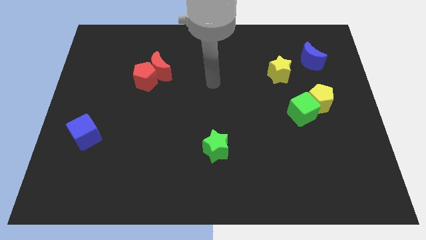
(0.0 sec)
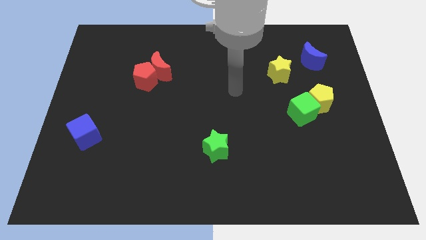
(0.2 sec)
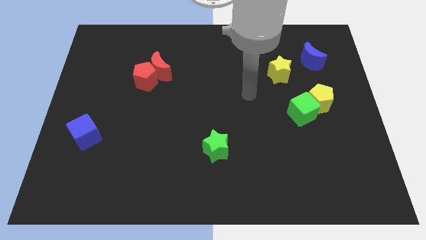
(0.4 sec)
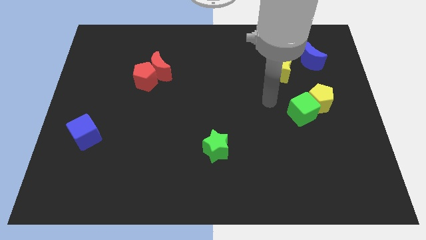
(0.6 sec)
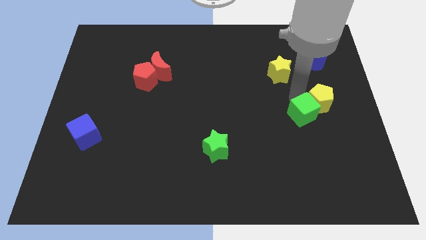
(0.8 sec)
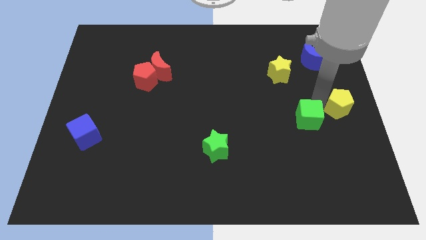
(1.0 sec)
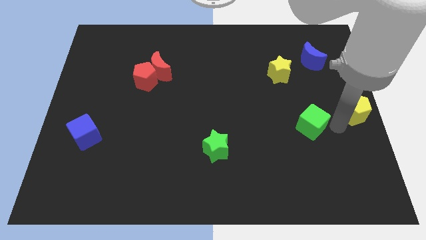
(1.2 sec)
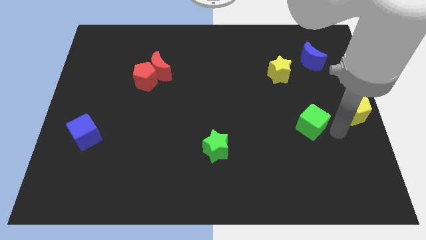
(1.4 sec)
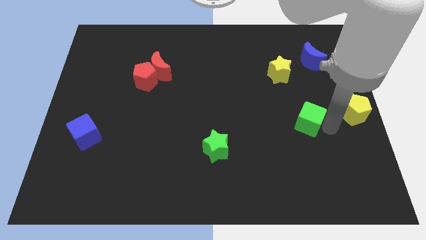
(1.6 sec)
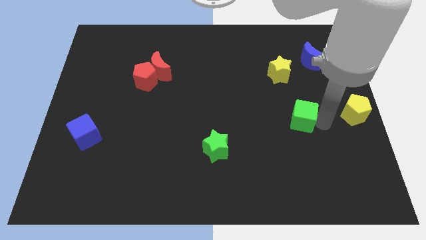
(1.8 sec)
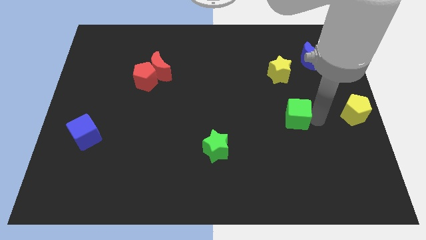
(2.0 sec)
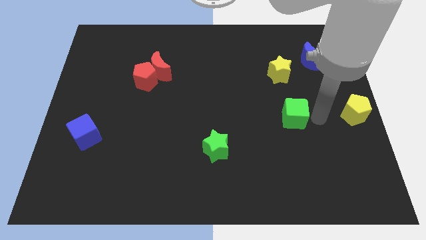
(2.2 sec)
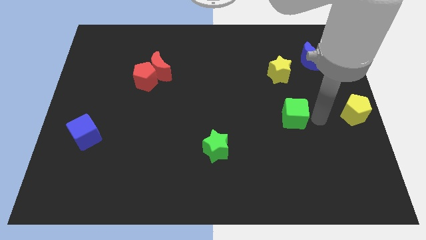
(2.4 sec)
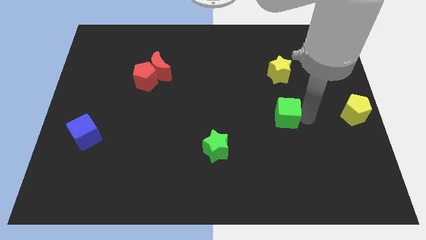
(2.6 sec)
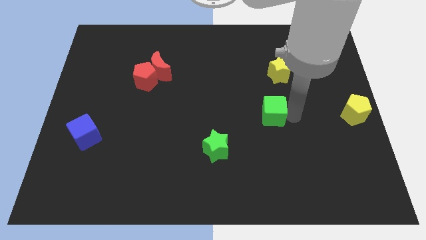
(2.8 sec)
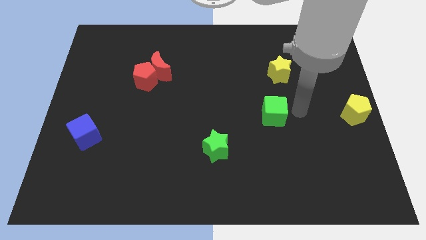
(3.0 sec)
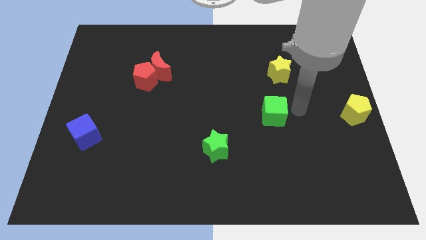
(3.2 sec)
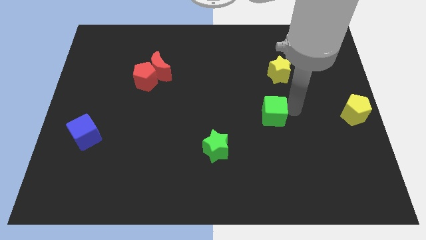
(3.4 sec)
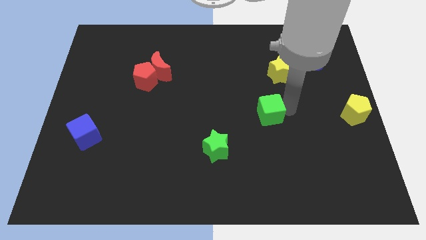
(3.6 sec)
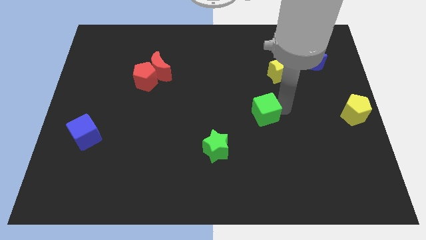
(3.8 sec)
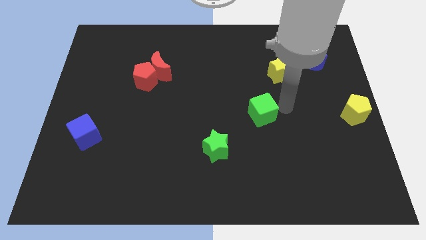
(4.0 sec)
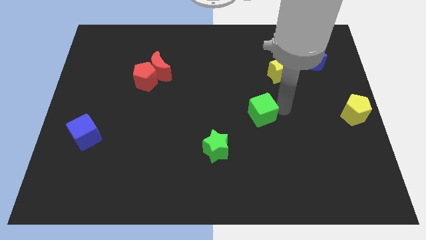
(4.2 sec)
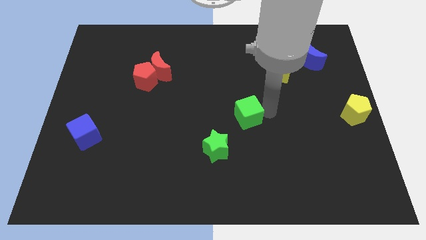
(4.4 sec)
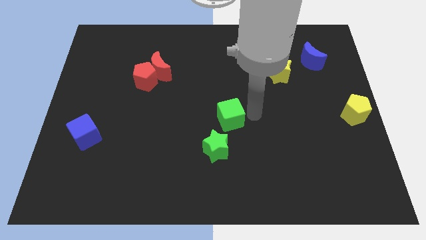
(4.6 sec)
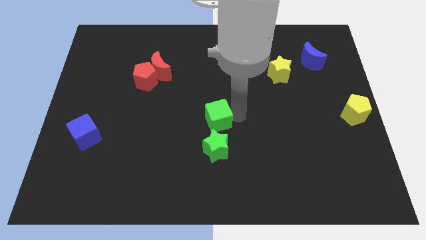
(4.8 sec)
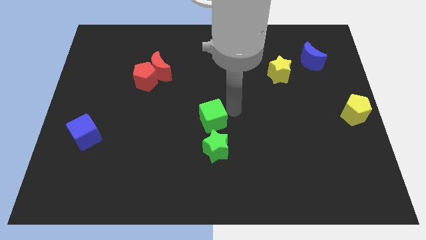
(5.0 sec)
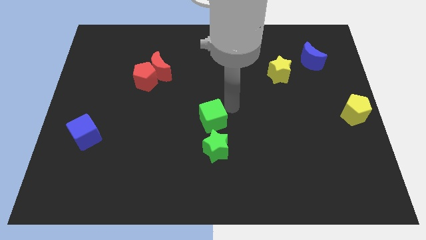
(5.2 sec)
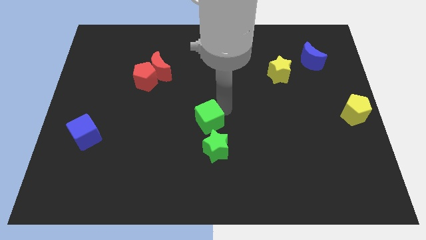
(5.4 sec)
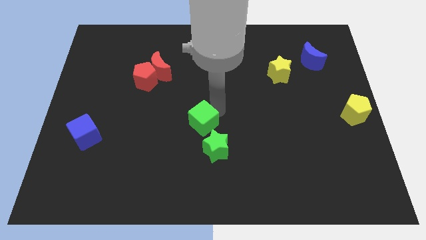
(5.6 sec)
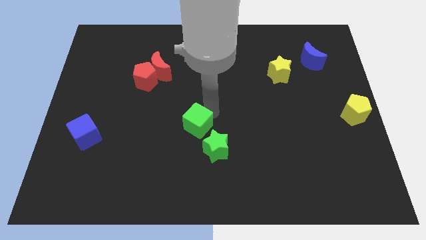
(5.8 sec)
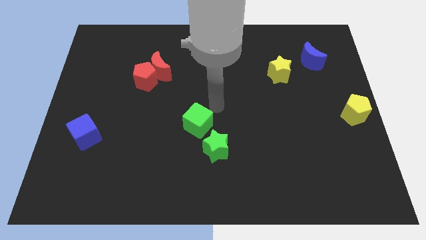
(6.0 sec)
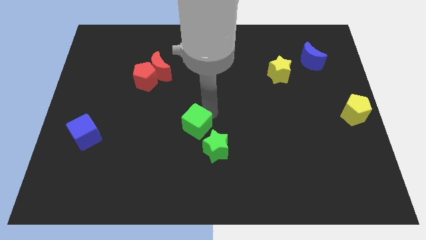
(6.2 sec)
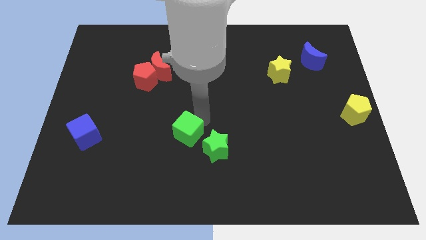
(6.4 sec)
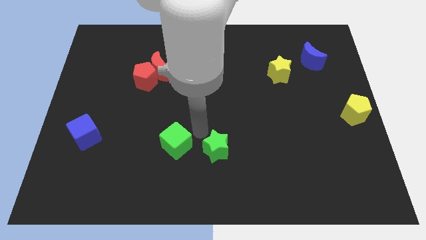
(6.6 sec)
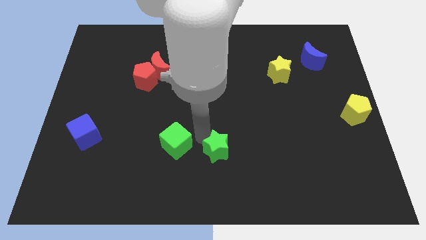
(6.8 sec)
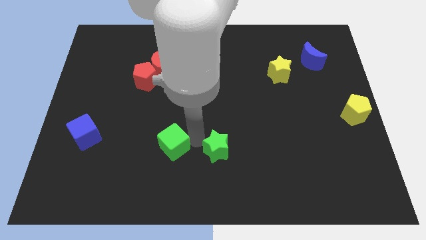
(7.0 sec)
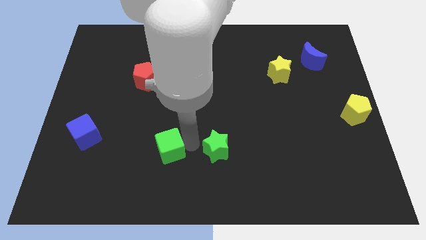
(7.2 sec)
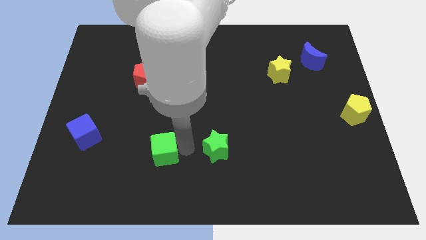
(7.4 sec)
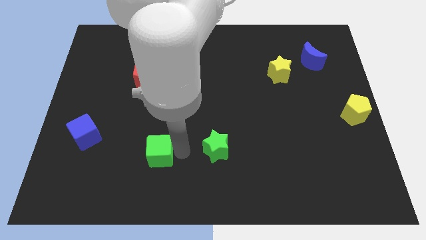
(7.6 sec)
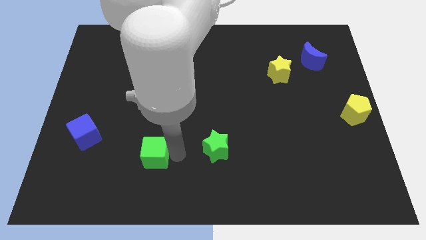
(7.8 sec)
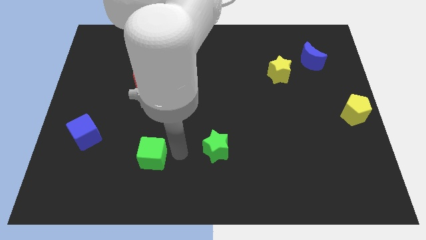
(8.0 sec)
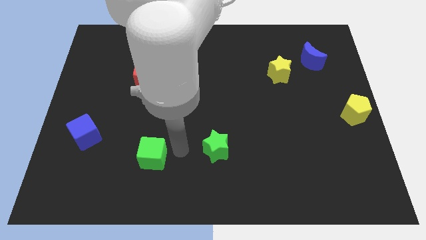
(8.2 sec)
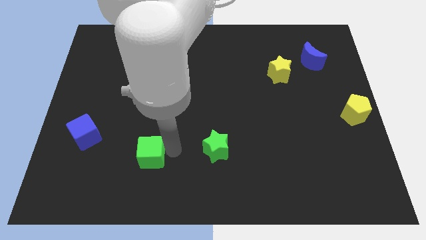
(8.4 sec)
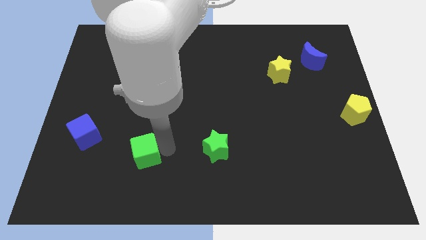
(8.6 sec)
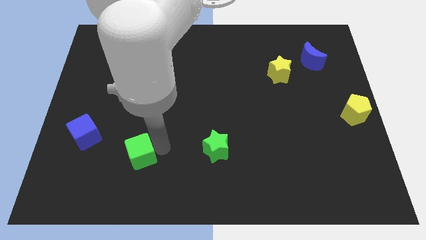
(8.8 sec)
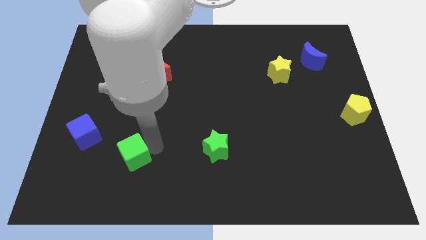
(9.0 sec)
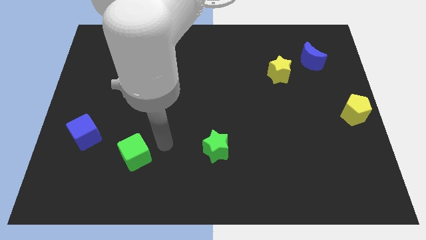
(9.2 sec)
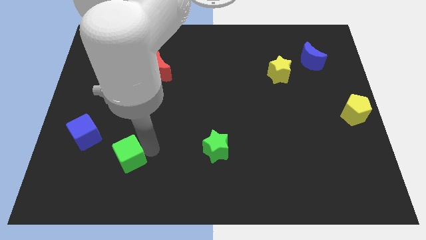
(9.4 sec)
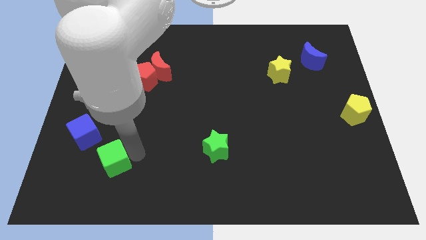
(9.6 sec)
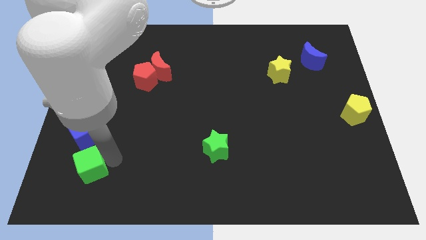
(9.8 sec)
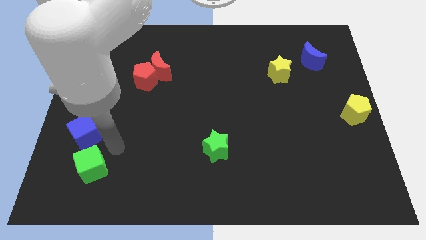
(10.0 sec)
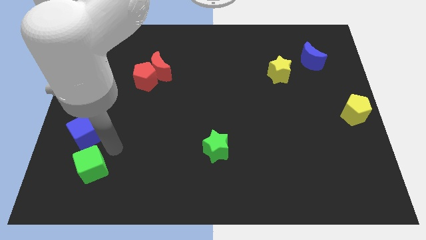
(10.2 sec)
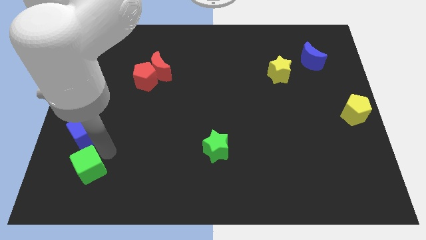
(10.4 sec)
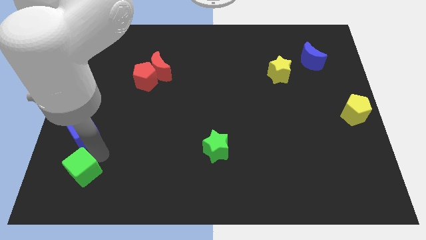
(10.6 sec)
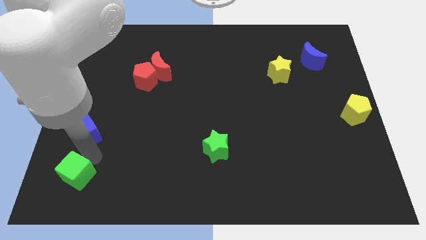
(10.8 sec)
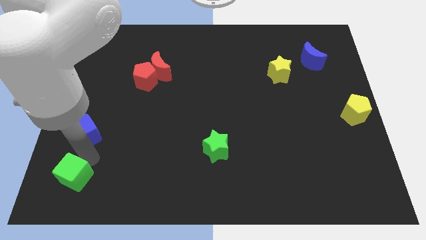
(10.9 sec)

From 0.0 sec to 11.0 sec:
slide the green cube to the bottom left of the board
